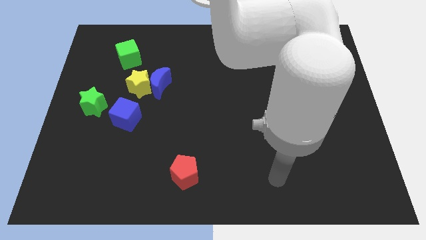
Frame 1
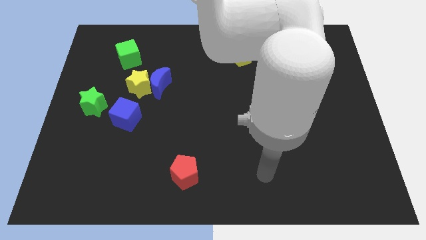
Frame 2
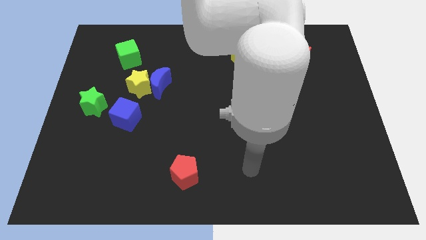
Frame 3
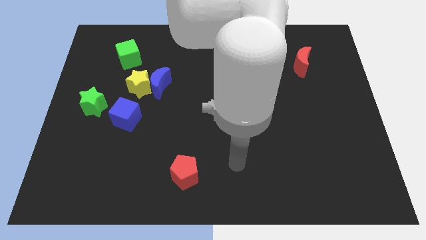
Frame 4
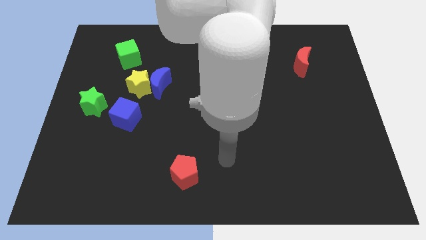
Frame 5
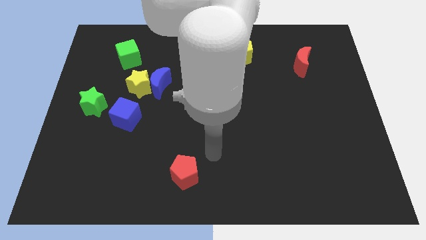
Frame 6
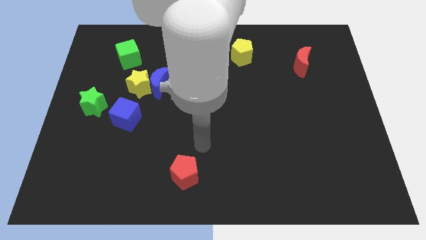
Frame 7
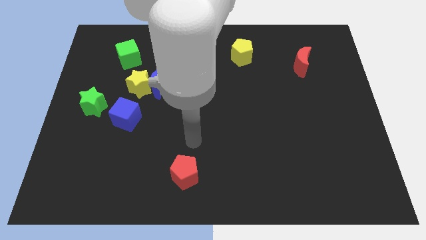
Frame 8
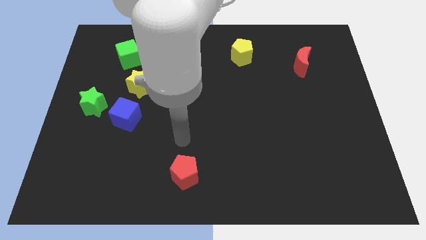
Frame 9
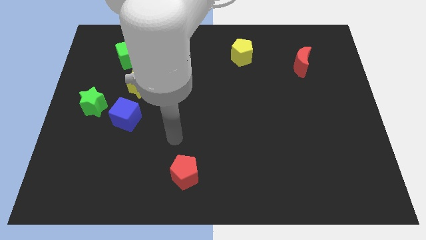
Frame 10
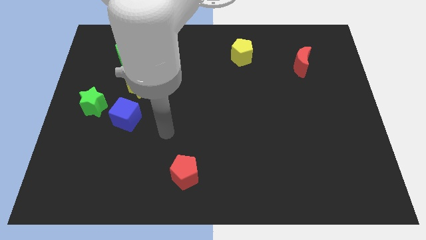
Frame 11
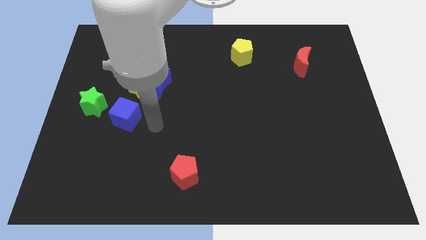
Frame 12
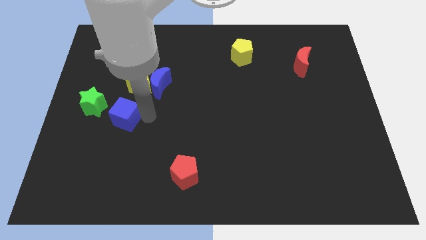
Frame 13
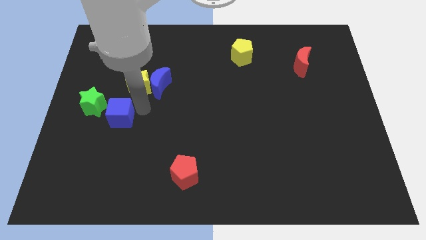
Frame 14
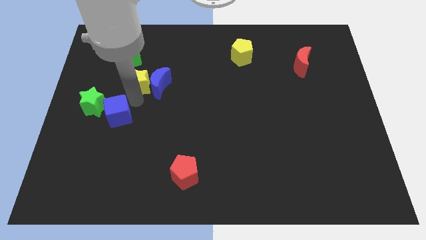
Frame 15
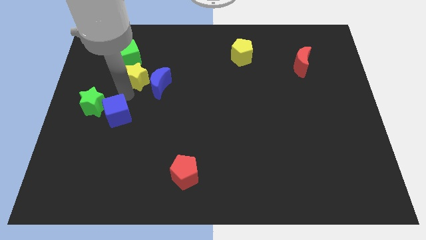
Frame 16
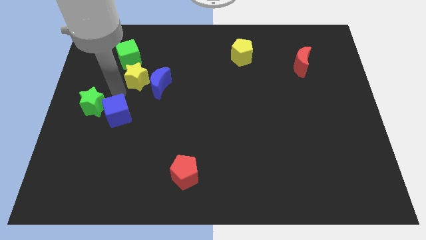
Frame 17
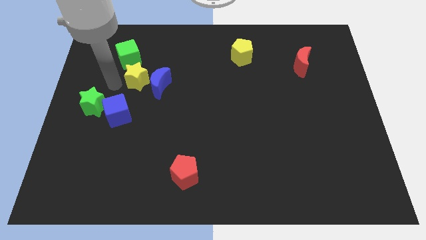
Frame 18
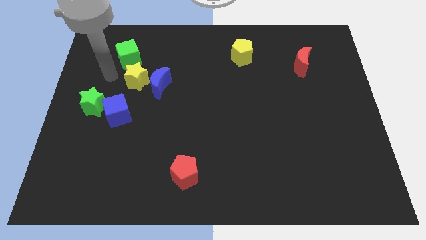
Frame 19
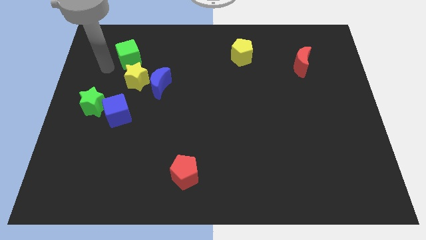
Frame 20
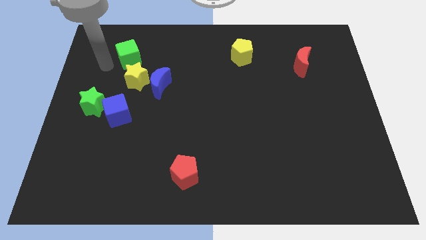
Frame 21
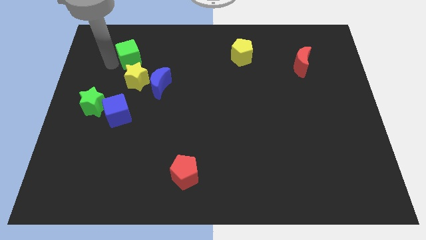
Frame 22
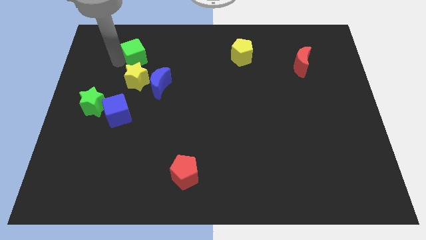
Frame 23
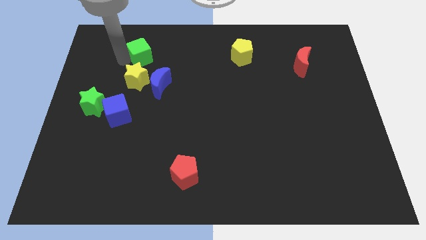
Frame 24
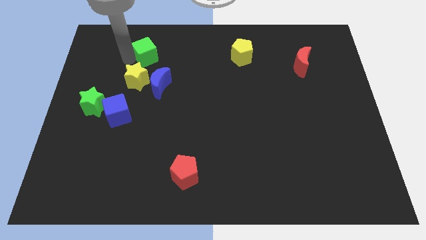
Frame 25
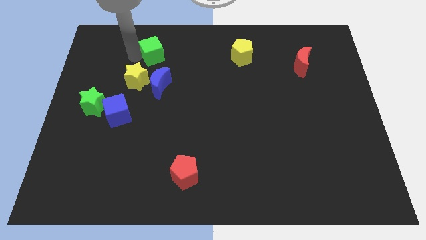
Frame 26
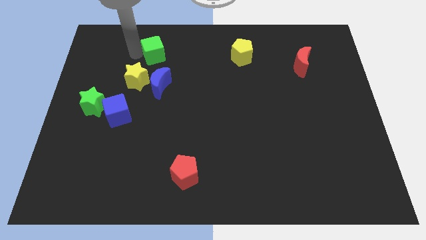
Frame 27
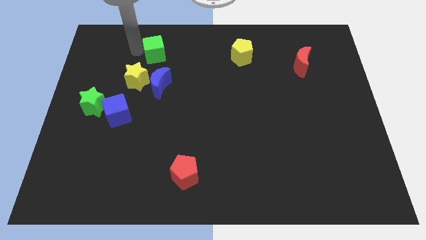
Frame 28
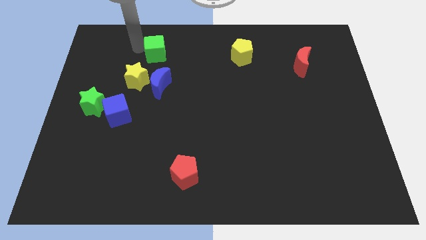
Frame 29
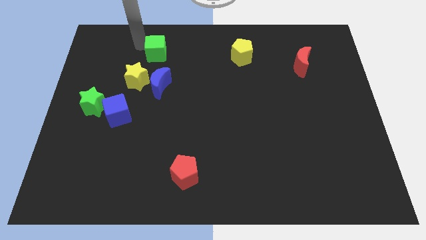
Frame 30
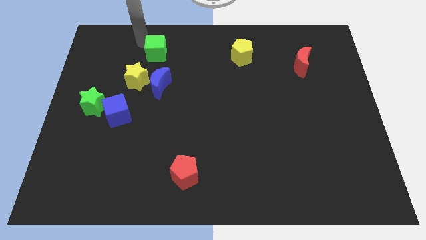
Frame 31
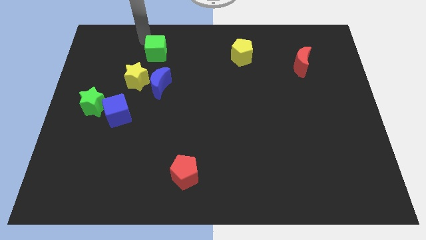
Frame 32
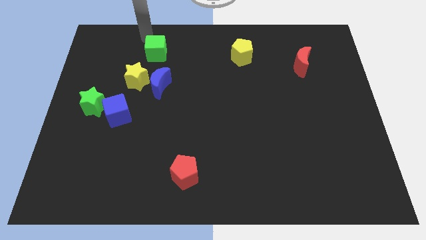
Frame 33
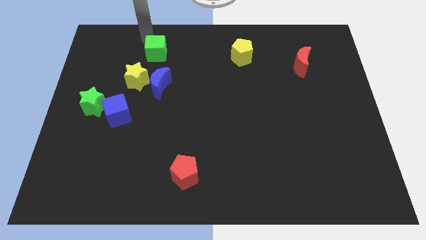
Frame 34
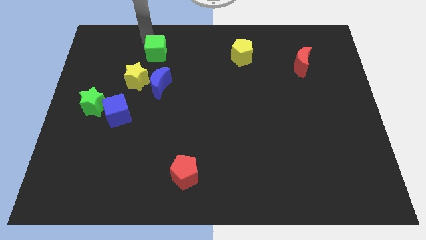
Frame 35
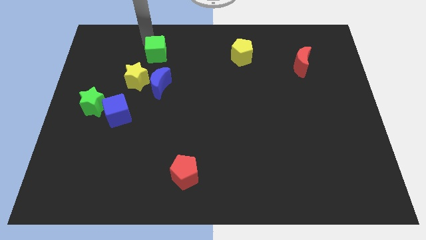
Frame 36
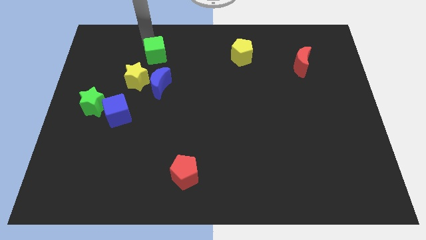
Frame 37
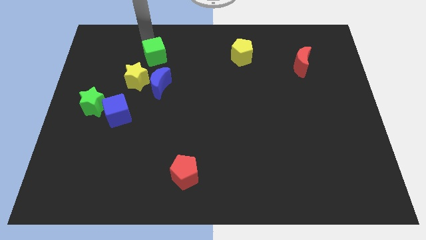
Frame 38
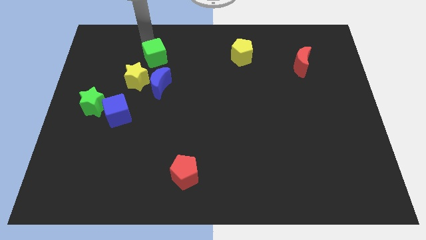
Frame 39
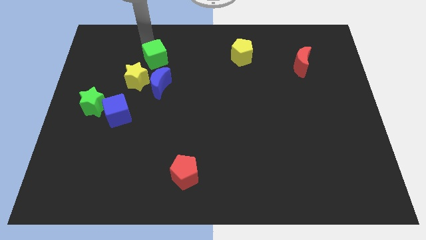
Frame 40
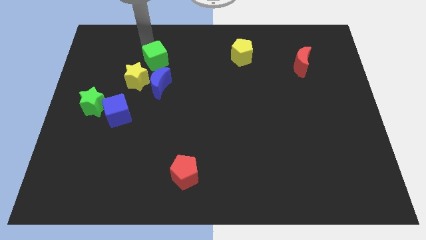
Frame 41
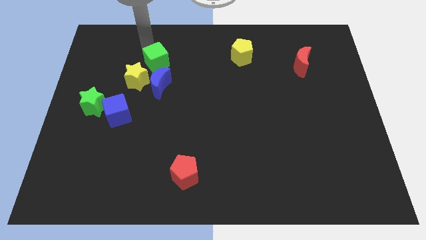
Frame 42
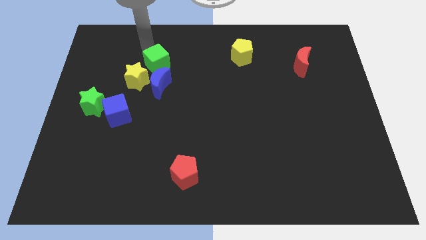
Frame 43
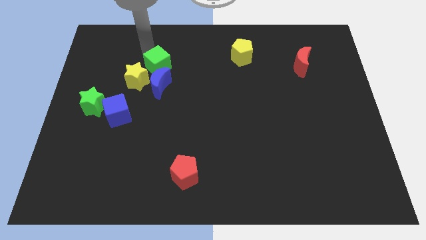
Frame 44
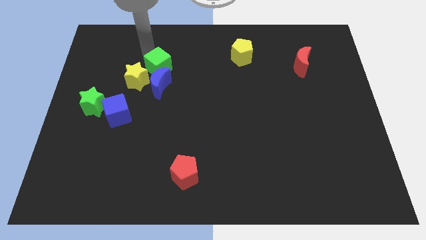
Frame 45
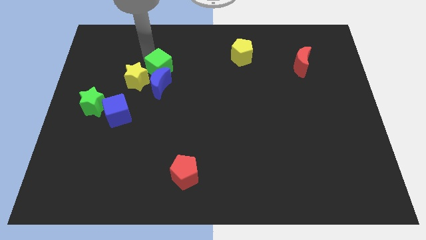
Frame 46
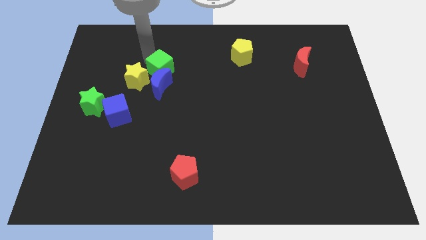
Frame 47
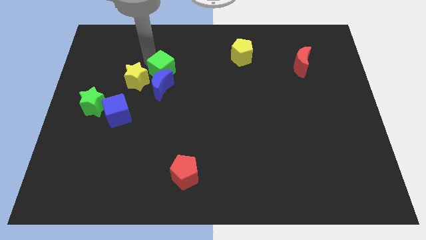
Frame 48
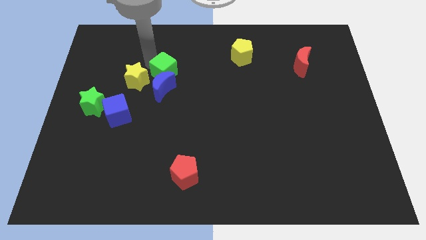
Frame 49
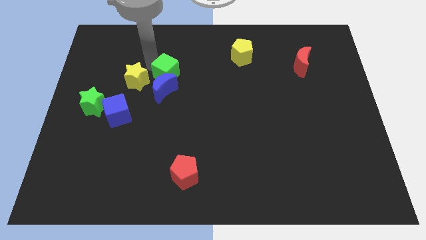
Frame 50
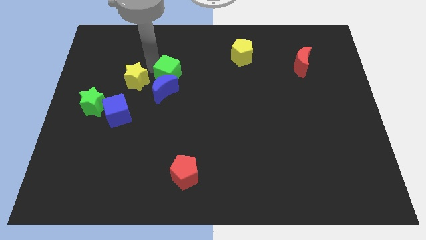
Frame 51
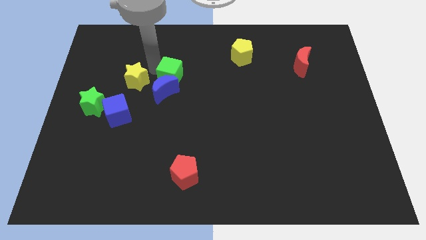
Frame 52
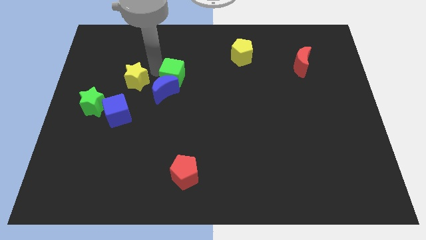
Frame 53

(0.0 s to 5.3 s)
move the green cube to the middle of the board

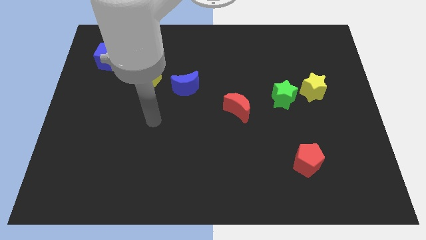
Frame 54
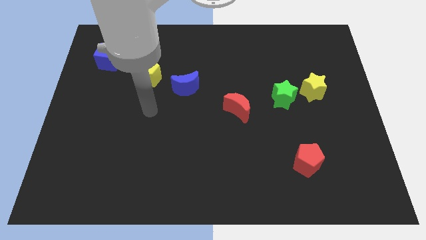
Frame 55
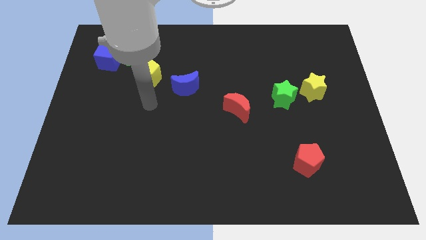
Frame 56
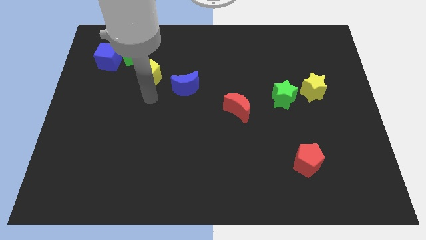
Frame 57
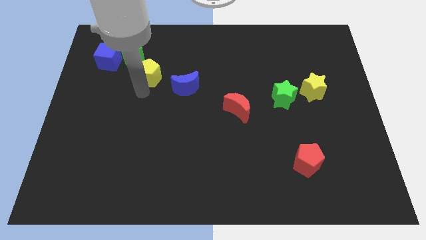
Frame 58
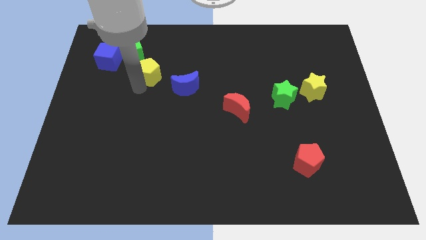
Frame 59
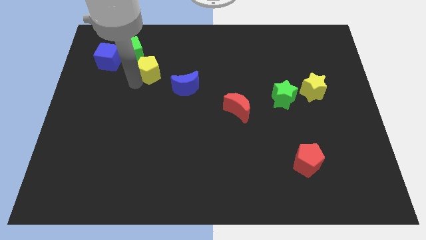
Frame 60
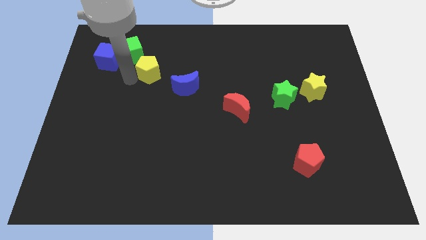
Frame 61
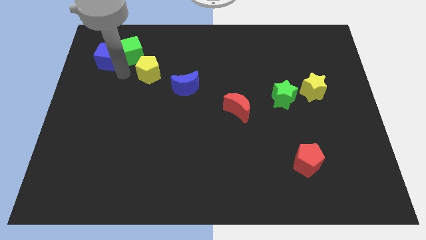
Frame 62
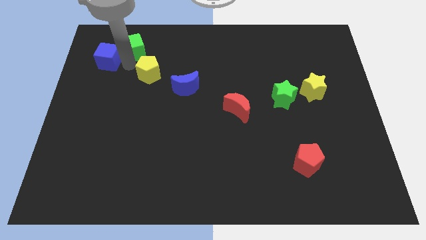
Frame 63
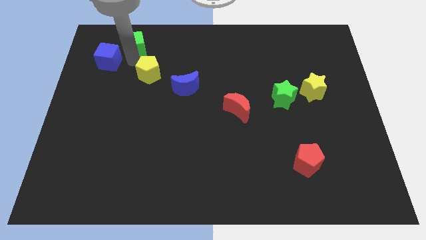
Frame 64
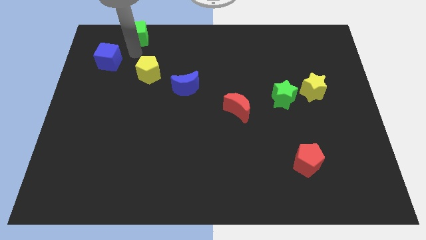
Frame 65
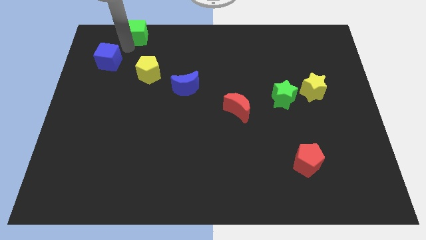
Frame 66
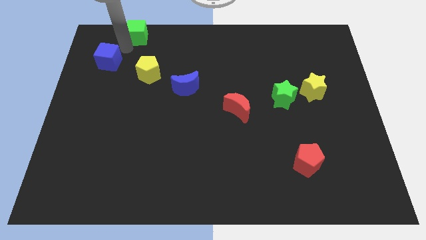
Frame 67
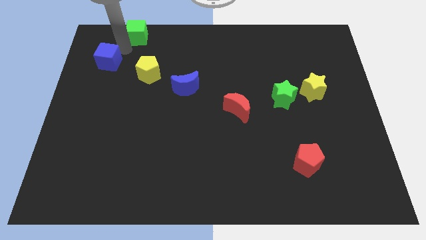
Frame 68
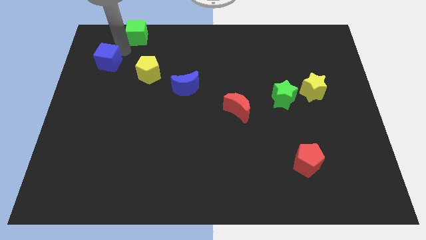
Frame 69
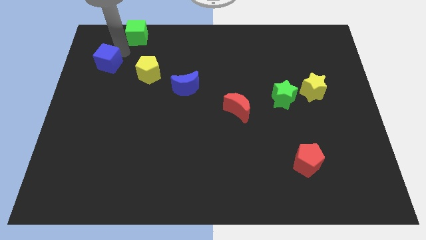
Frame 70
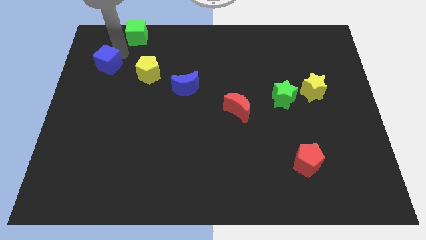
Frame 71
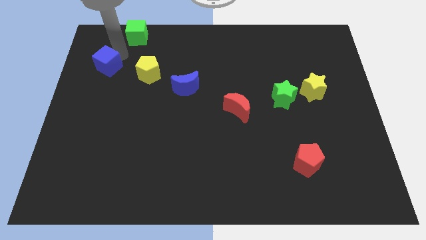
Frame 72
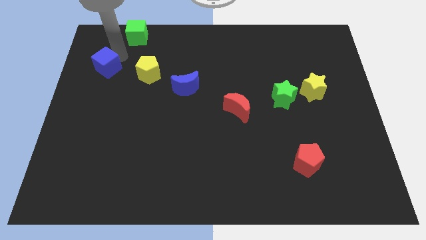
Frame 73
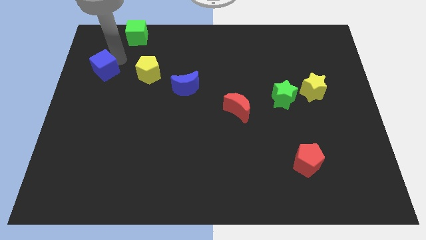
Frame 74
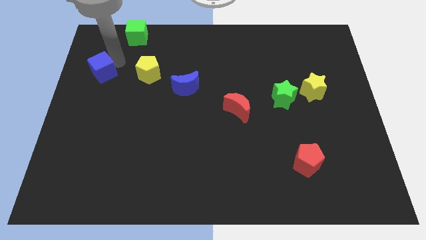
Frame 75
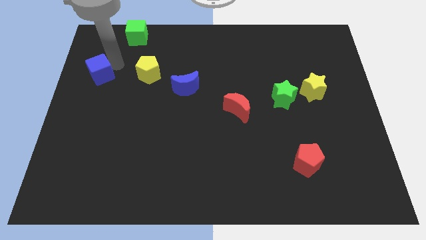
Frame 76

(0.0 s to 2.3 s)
push the blue cube to the left side

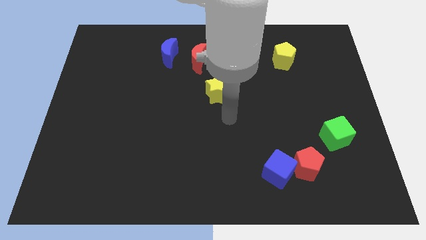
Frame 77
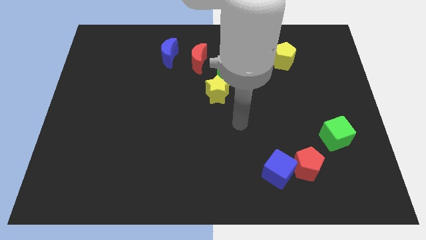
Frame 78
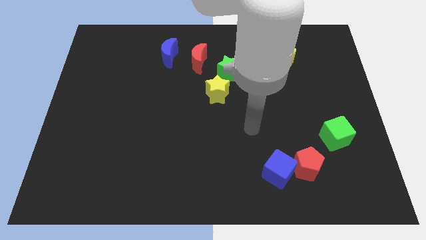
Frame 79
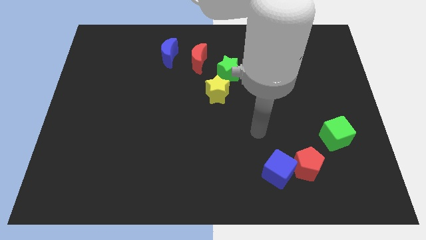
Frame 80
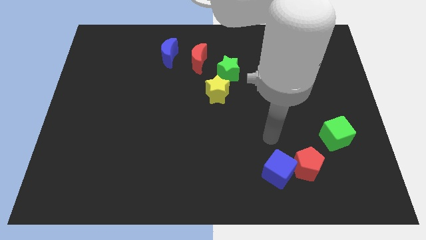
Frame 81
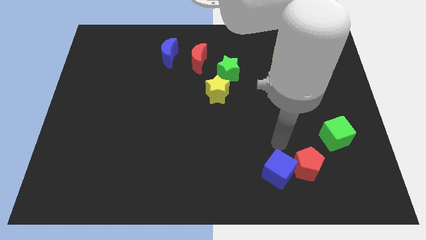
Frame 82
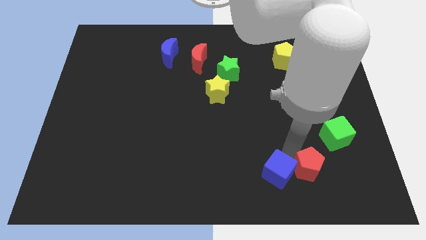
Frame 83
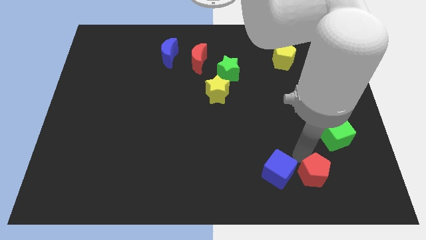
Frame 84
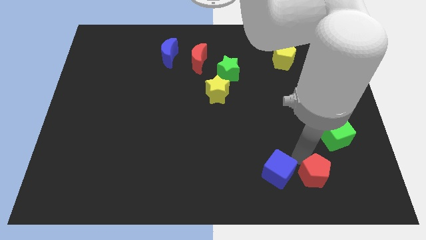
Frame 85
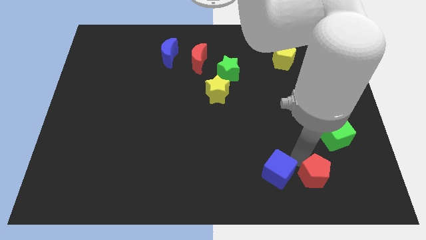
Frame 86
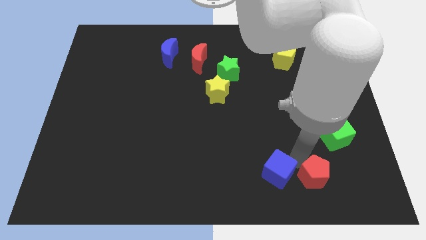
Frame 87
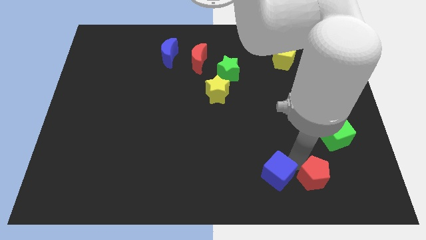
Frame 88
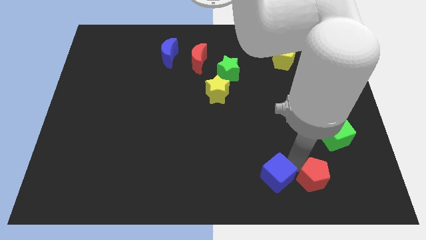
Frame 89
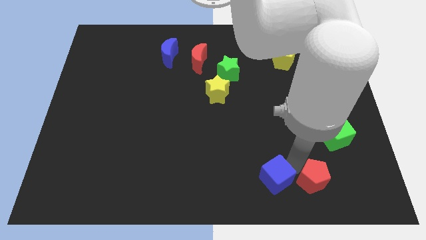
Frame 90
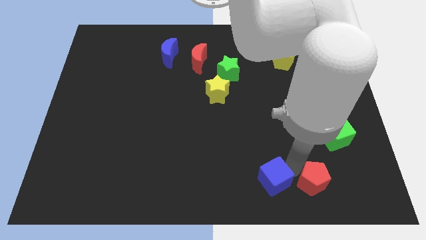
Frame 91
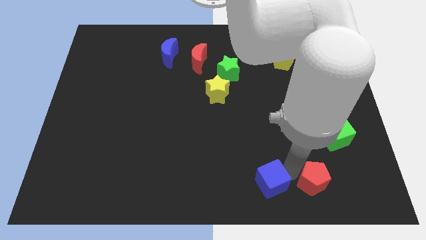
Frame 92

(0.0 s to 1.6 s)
put the blue cube to the bottom
